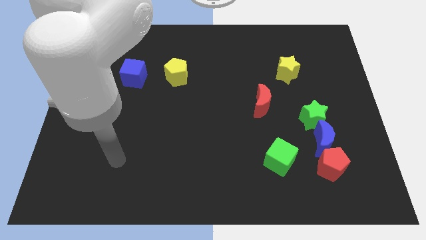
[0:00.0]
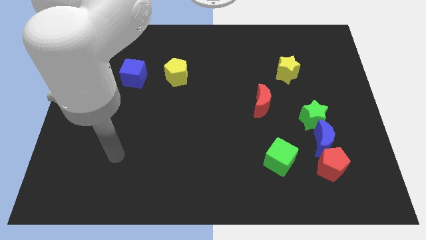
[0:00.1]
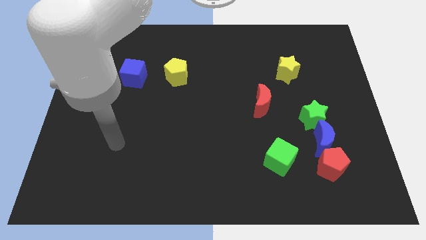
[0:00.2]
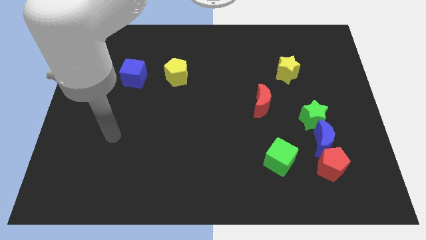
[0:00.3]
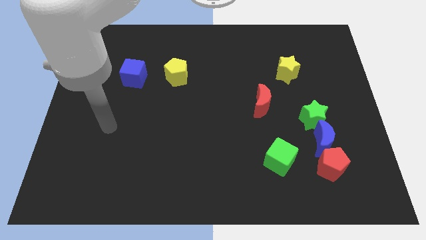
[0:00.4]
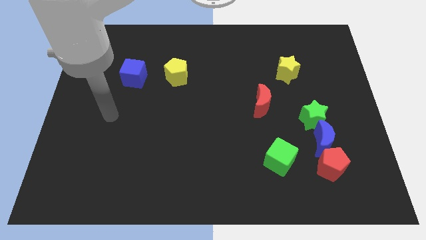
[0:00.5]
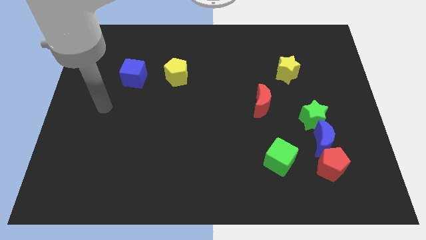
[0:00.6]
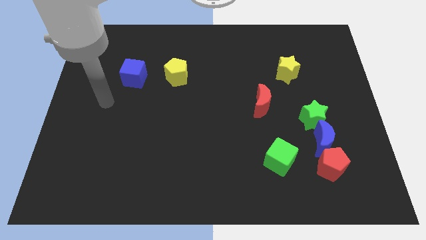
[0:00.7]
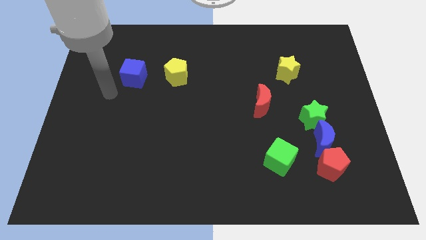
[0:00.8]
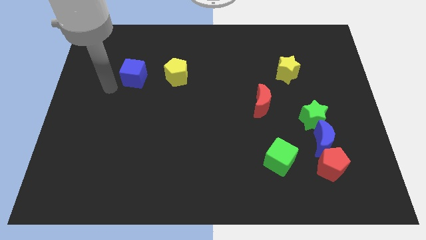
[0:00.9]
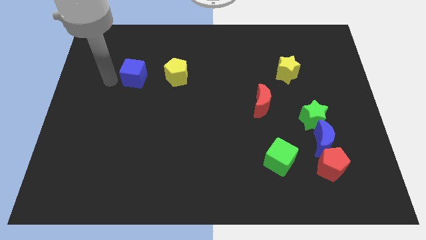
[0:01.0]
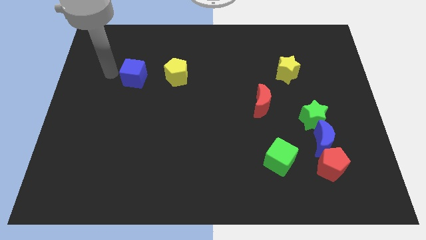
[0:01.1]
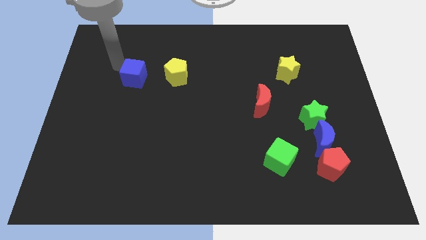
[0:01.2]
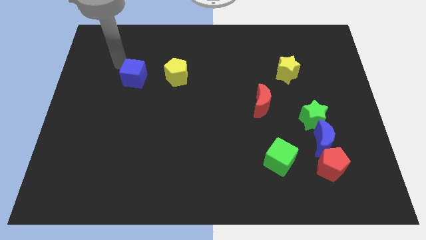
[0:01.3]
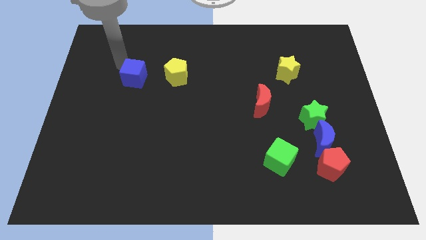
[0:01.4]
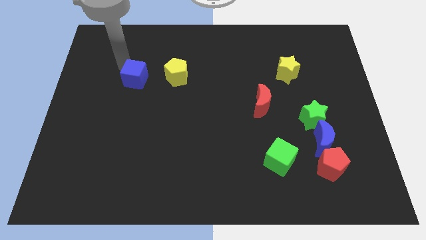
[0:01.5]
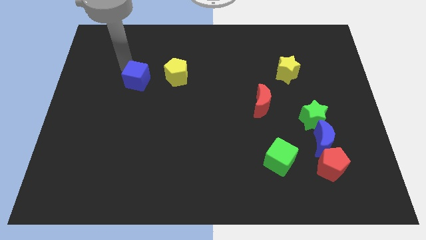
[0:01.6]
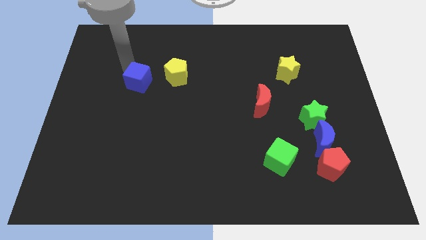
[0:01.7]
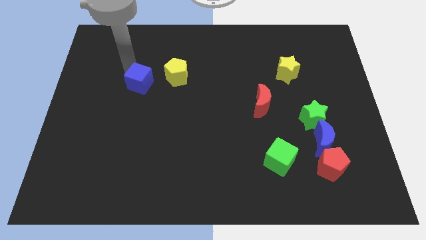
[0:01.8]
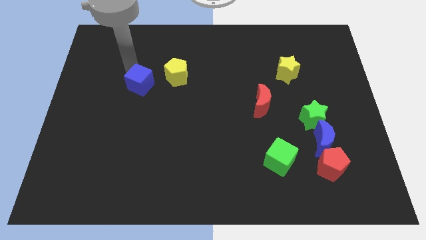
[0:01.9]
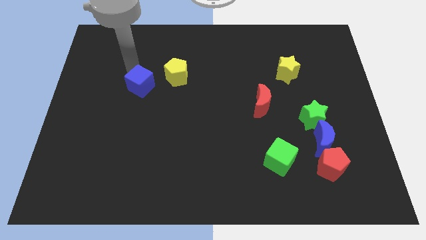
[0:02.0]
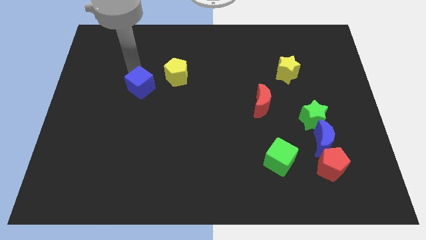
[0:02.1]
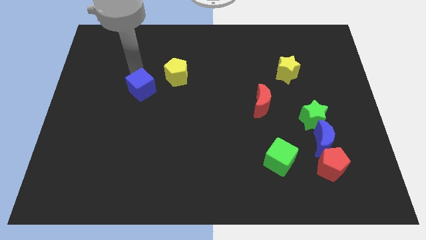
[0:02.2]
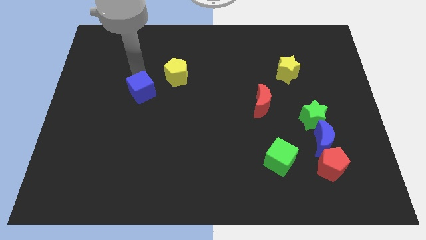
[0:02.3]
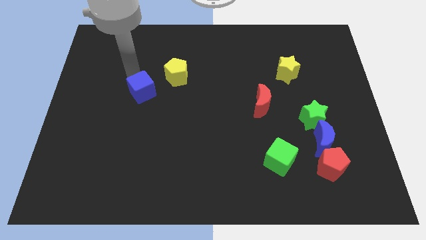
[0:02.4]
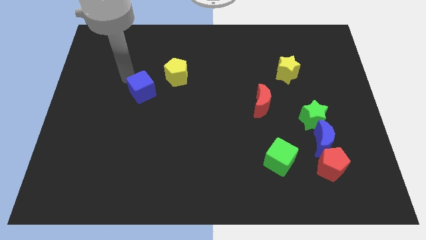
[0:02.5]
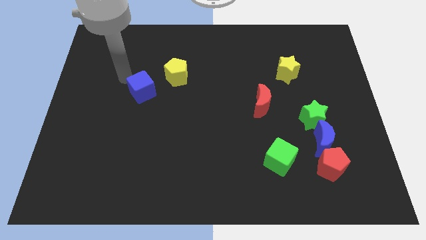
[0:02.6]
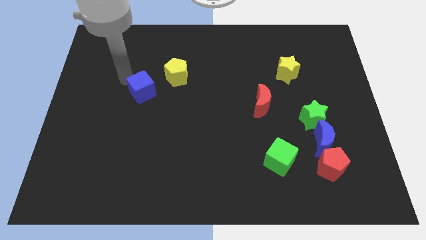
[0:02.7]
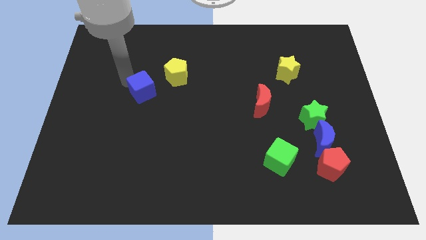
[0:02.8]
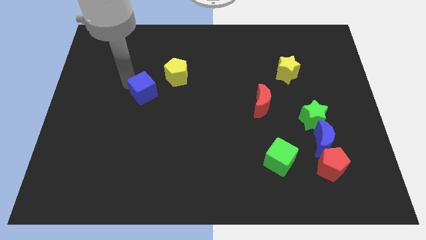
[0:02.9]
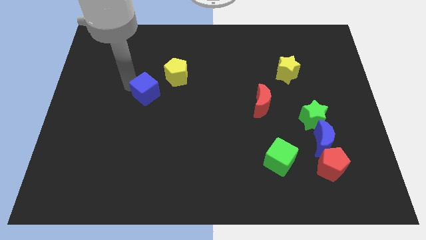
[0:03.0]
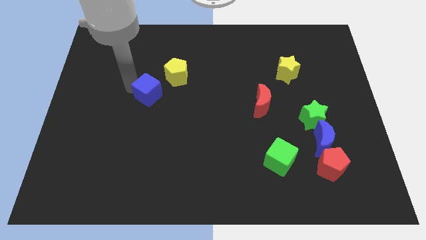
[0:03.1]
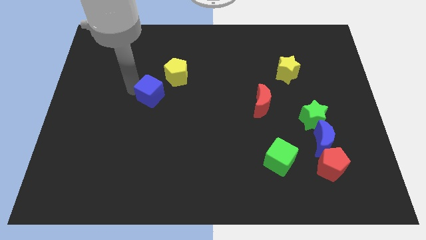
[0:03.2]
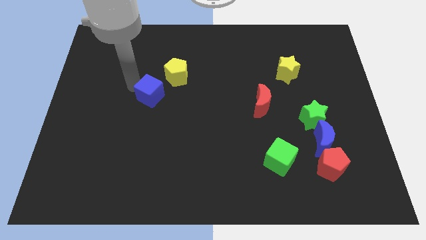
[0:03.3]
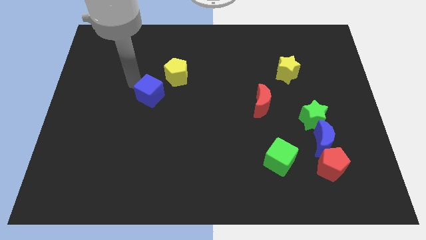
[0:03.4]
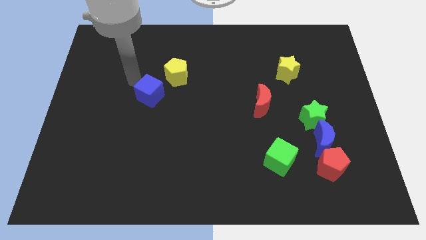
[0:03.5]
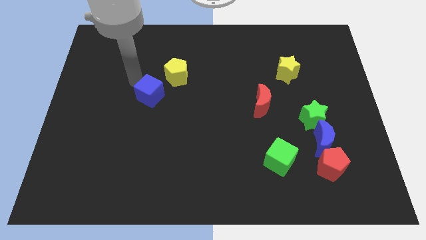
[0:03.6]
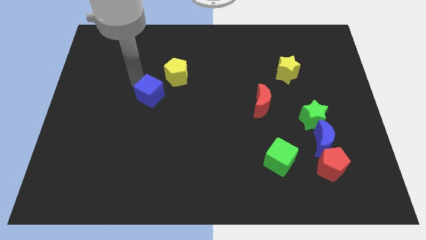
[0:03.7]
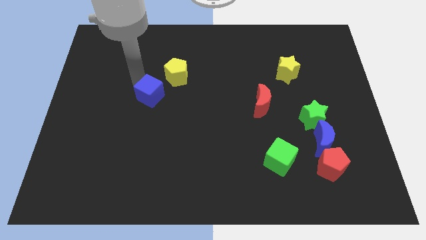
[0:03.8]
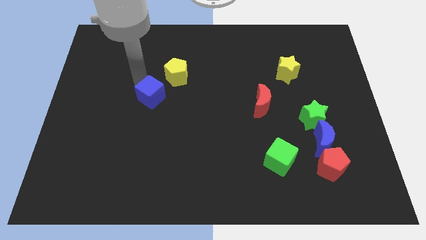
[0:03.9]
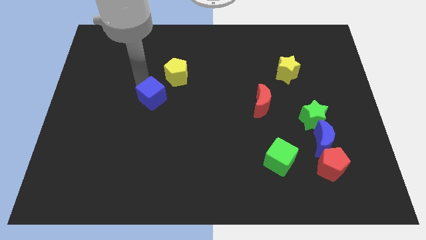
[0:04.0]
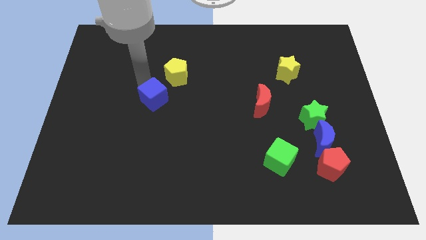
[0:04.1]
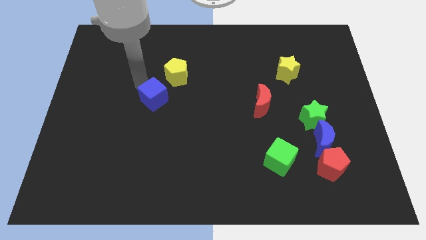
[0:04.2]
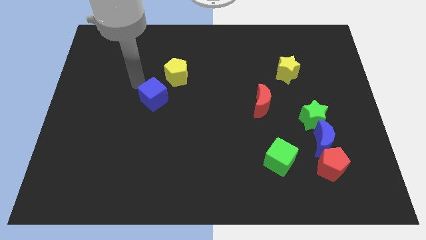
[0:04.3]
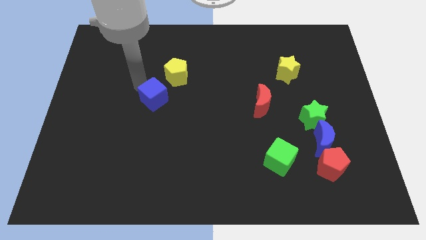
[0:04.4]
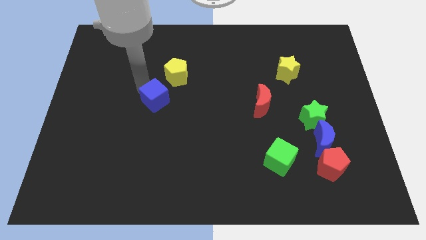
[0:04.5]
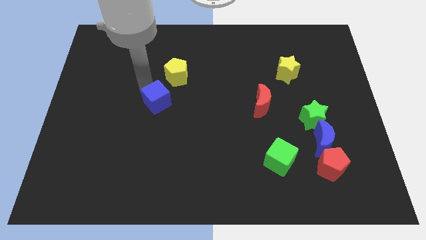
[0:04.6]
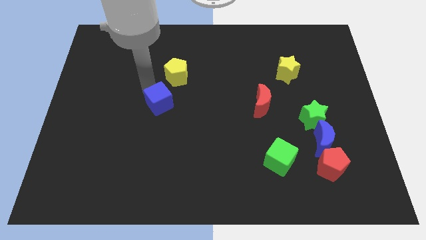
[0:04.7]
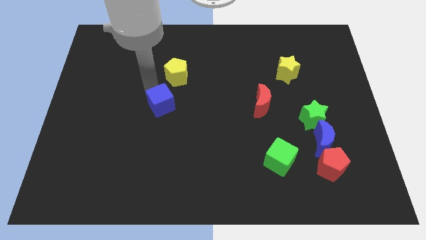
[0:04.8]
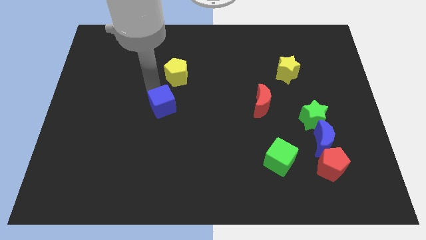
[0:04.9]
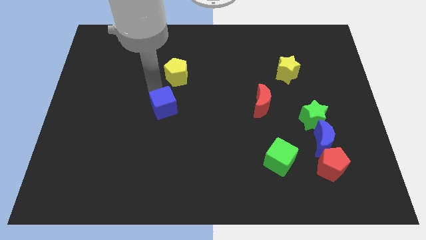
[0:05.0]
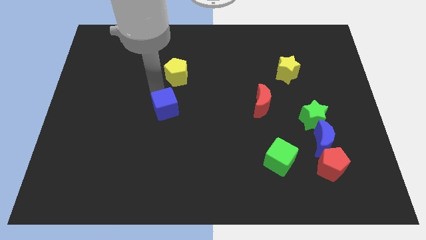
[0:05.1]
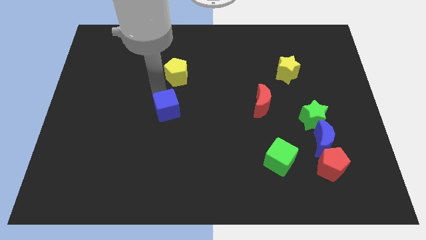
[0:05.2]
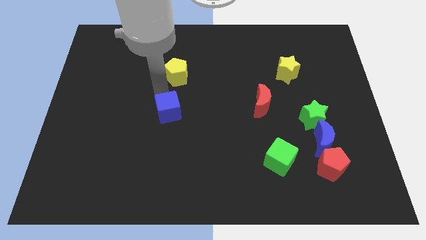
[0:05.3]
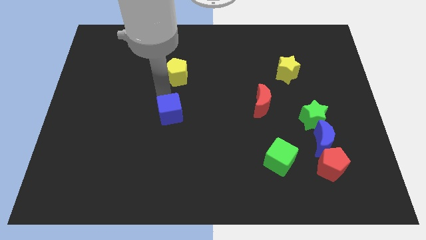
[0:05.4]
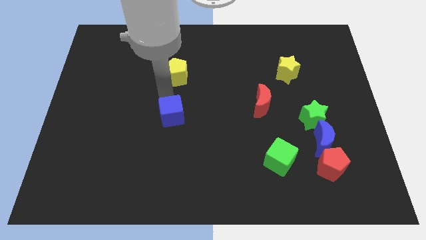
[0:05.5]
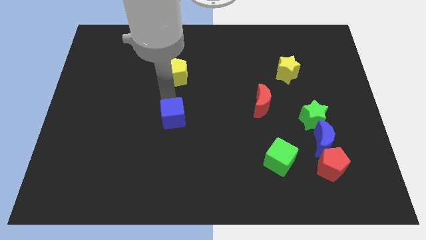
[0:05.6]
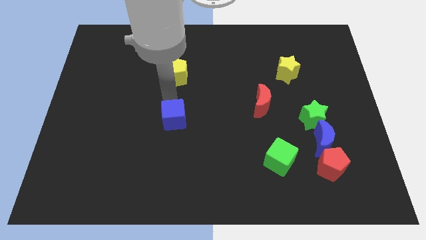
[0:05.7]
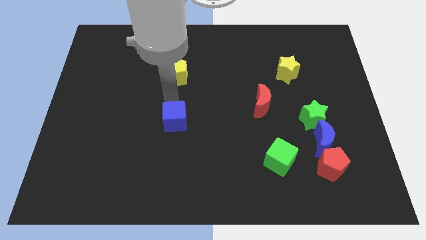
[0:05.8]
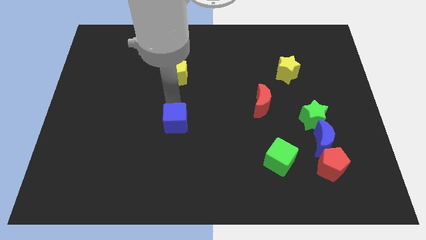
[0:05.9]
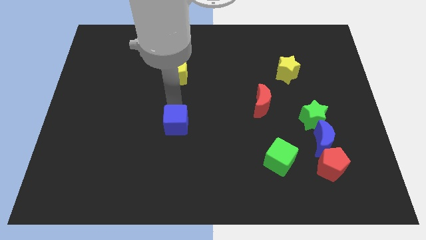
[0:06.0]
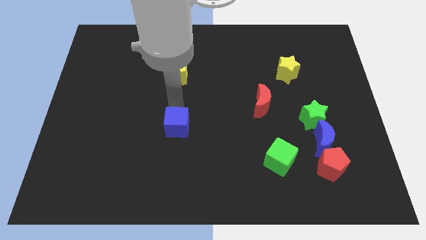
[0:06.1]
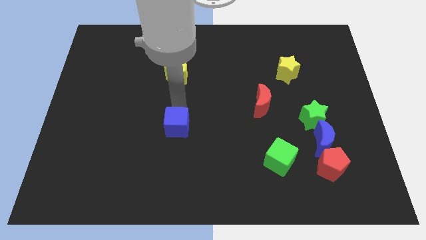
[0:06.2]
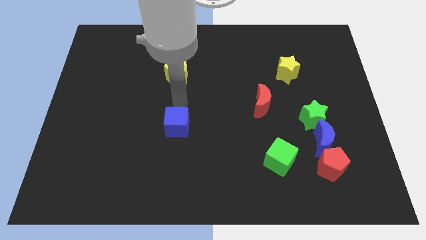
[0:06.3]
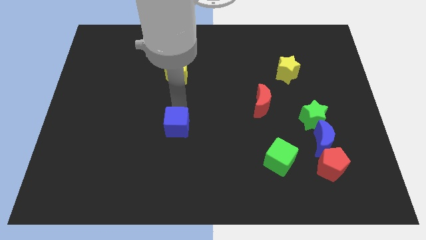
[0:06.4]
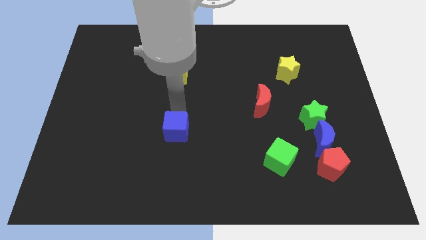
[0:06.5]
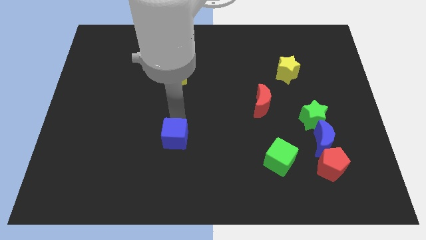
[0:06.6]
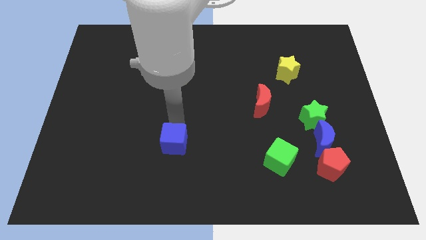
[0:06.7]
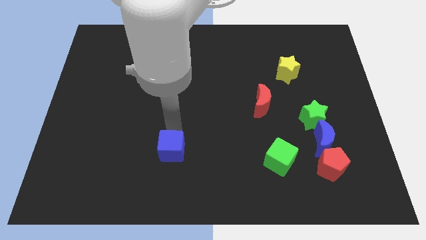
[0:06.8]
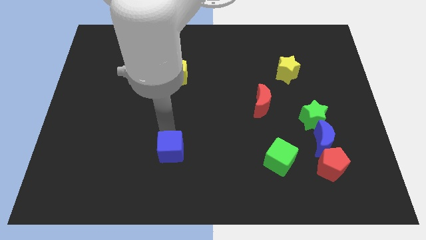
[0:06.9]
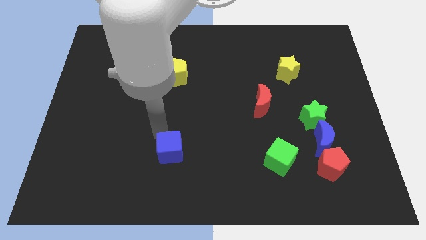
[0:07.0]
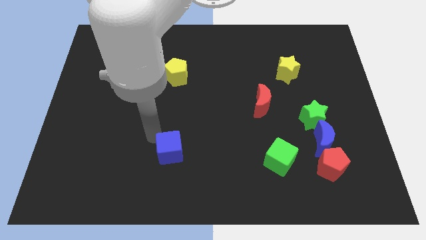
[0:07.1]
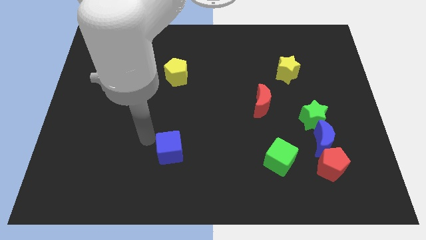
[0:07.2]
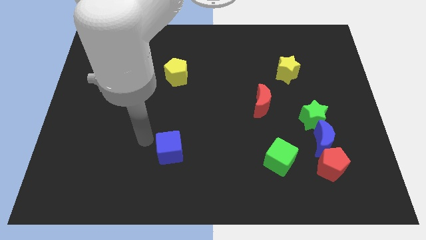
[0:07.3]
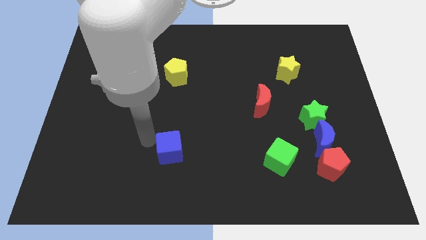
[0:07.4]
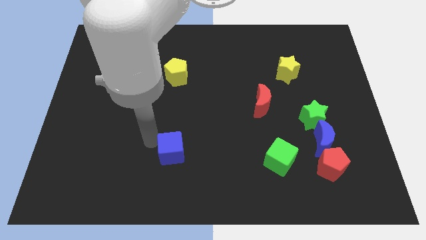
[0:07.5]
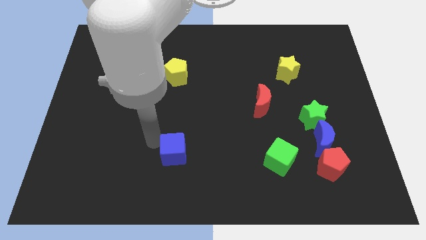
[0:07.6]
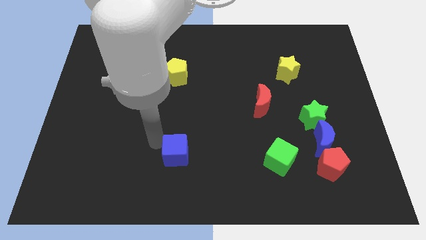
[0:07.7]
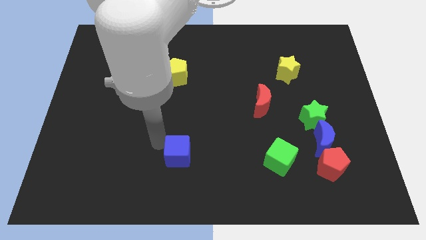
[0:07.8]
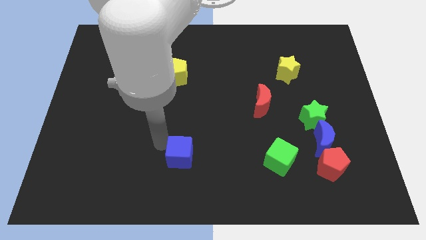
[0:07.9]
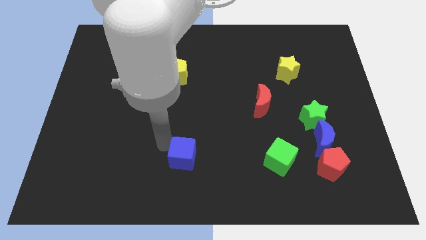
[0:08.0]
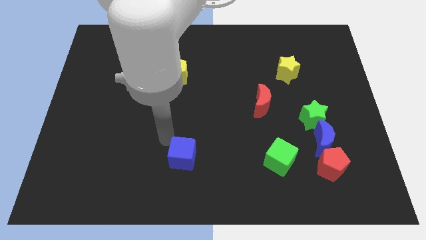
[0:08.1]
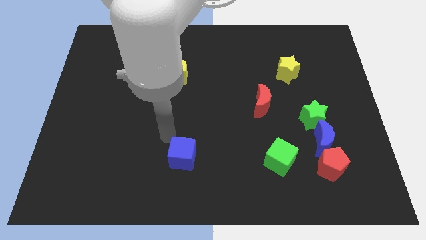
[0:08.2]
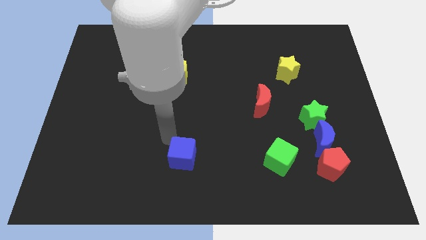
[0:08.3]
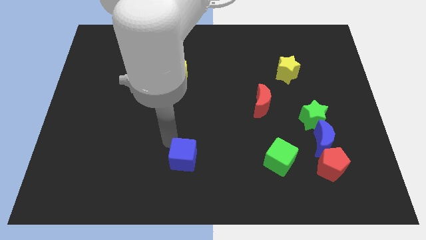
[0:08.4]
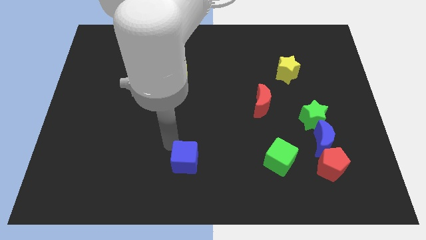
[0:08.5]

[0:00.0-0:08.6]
slide the blue cube to the bottom side
